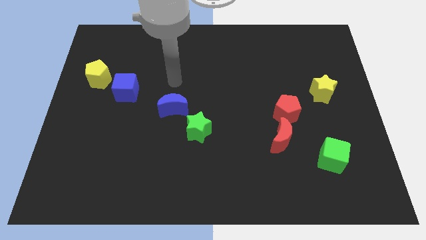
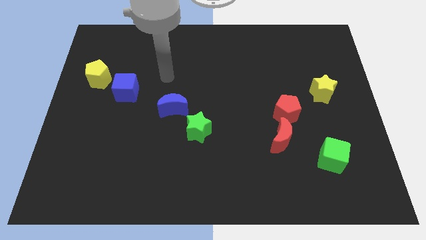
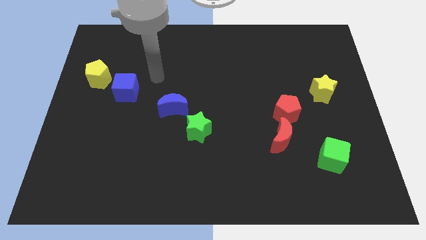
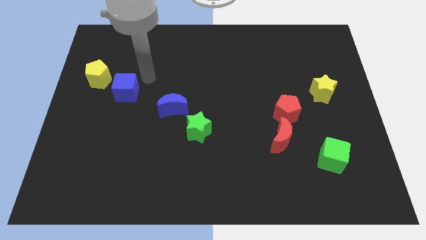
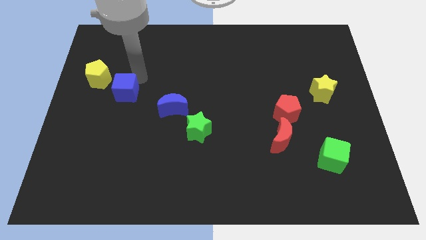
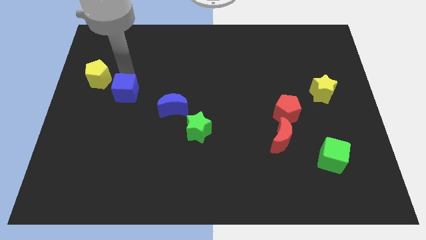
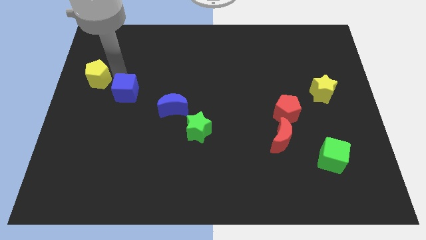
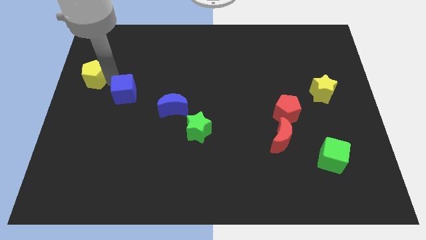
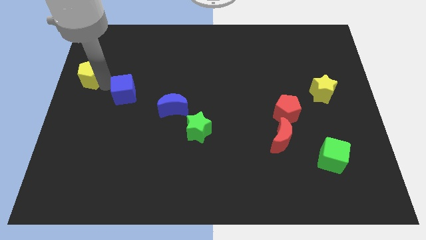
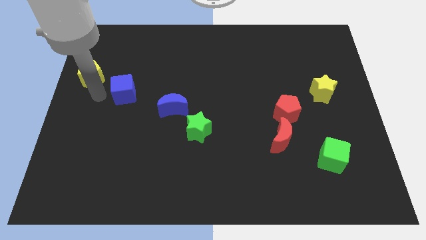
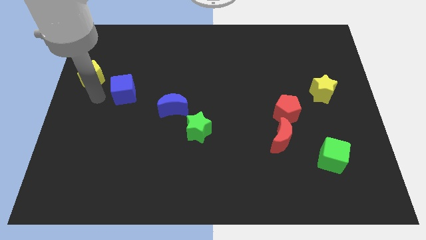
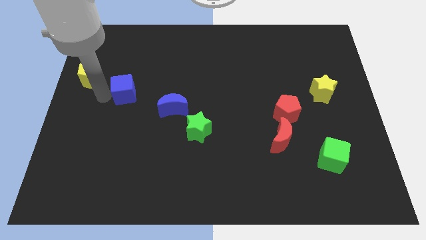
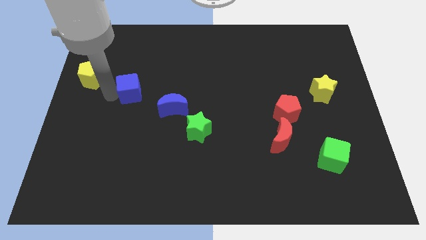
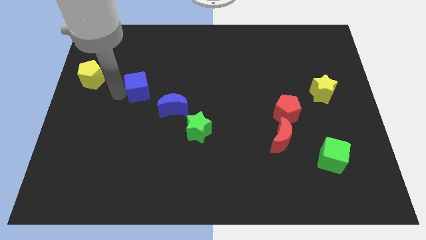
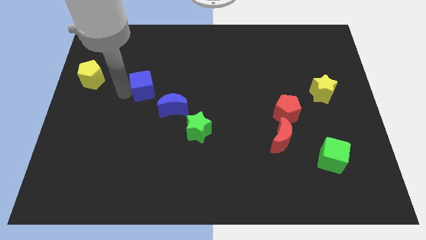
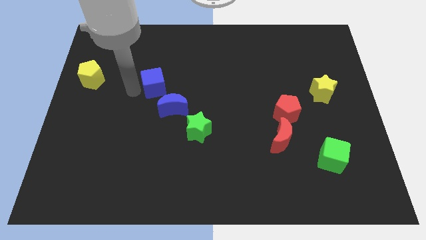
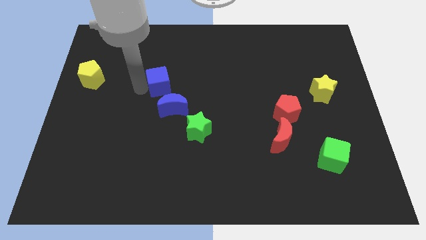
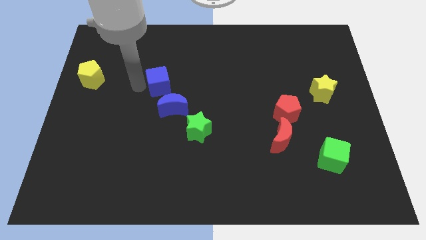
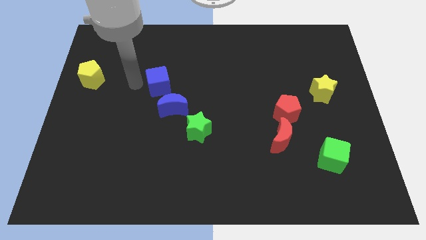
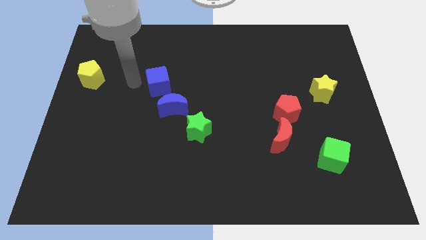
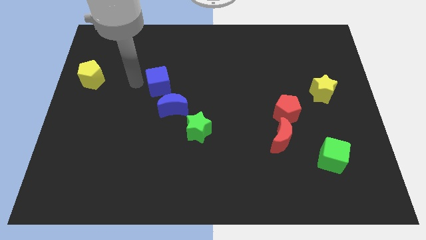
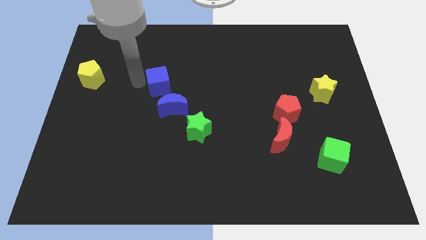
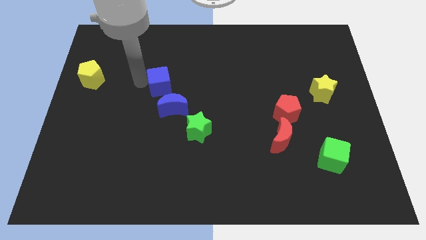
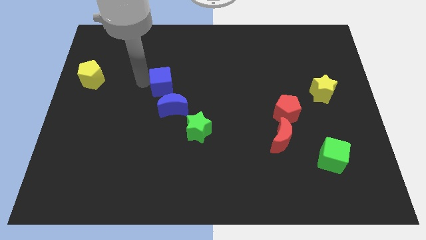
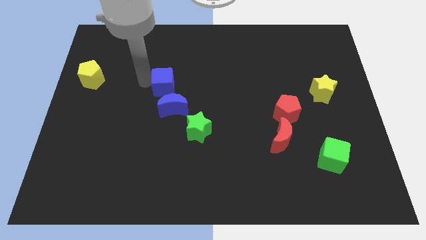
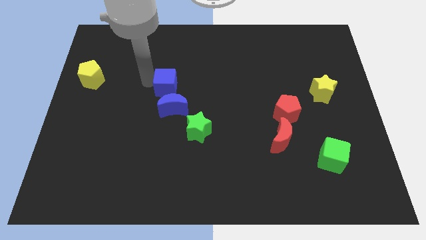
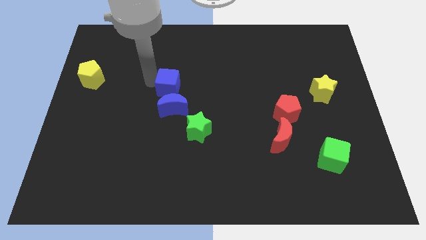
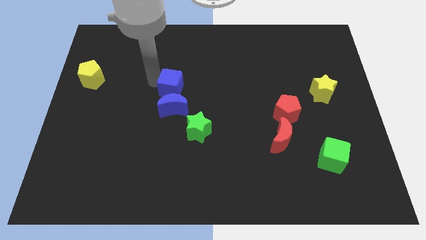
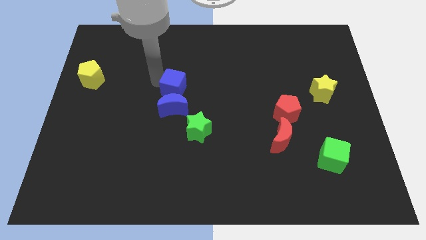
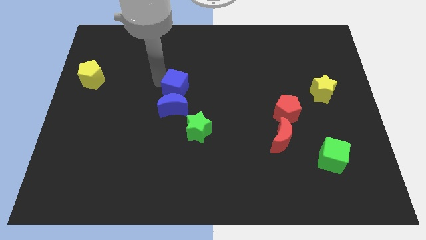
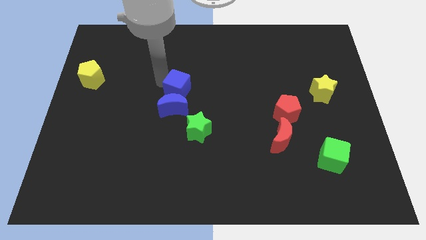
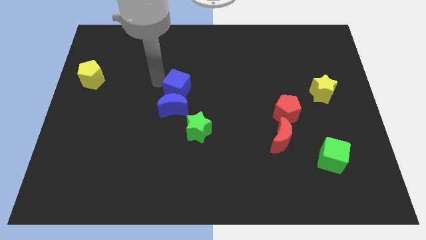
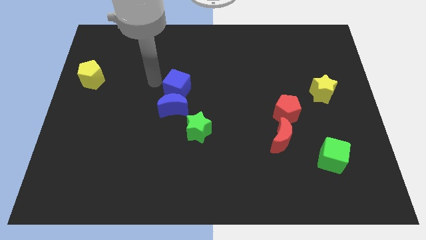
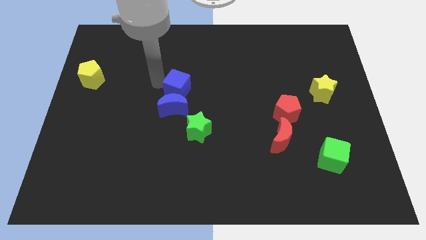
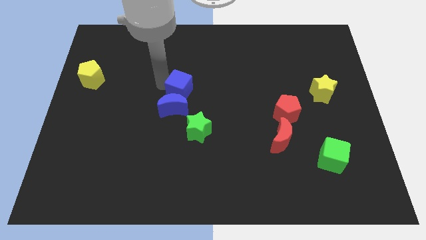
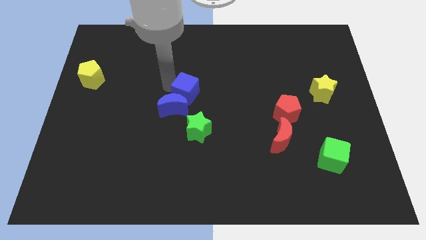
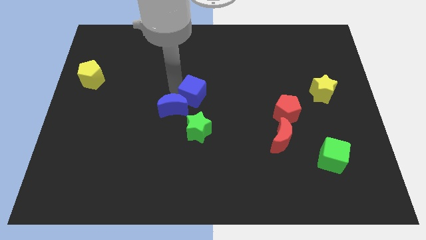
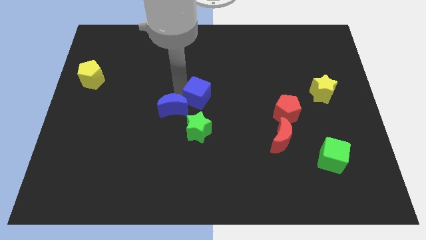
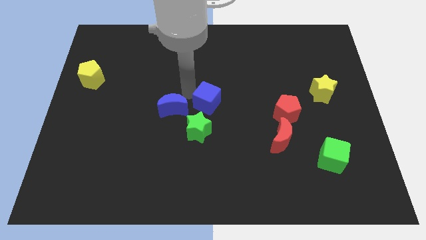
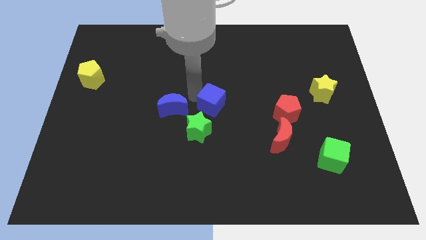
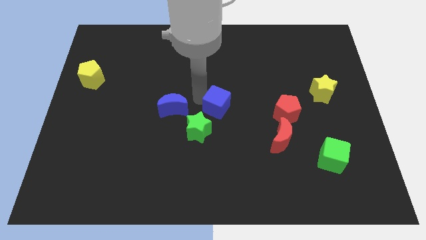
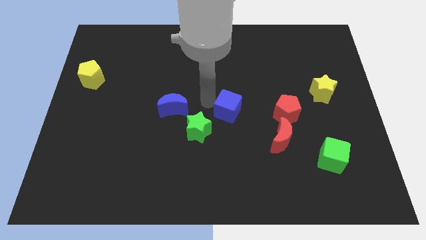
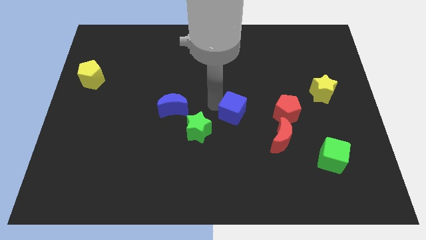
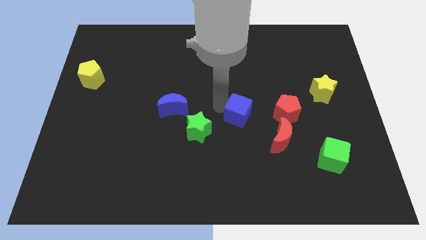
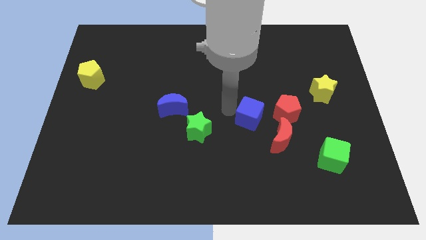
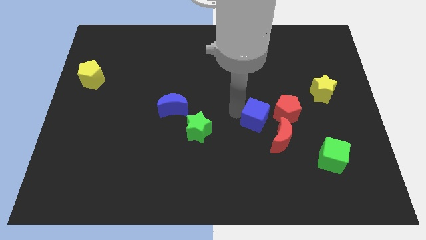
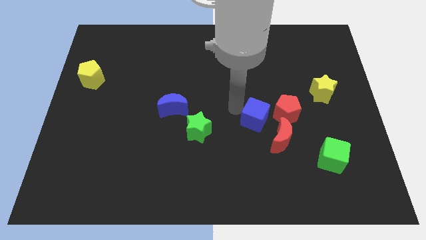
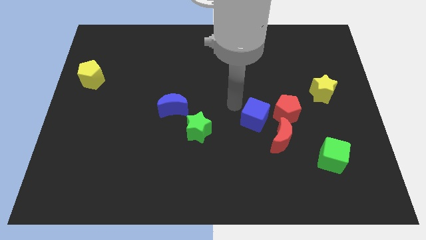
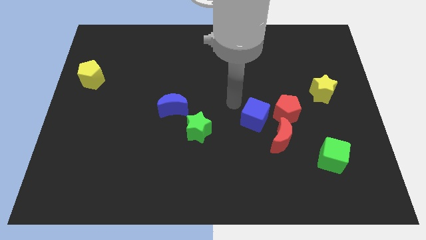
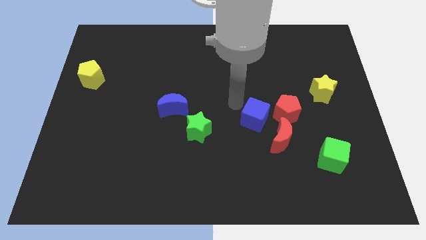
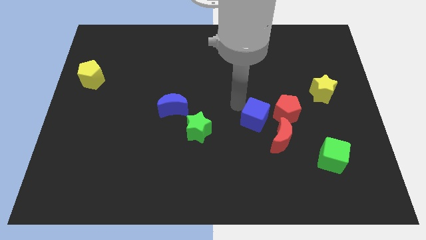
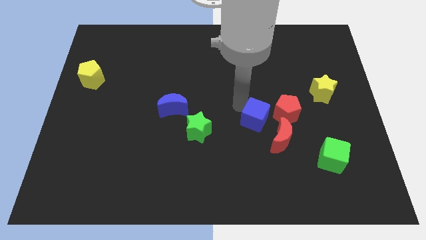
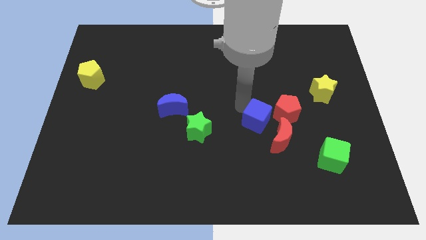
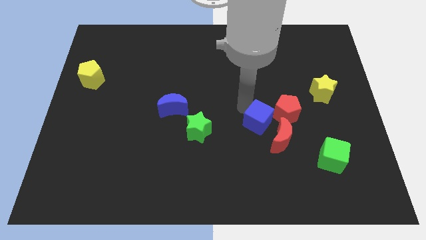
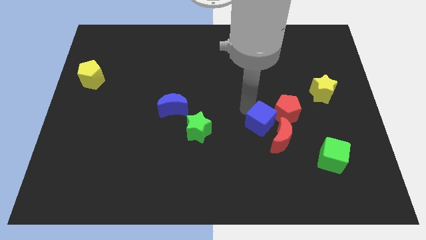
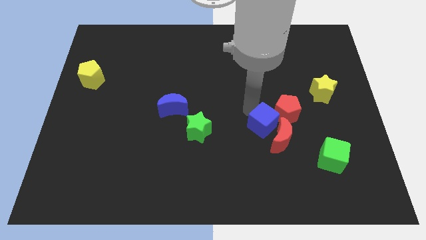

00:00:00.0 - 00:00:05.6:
move the blue cube next to the red moon

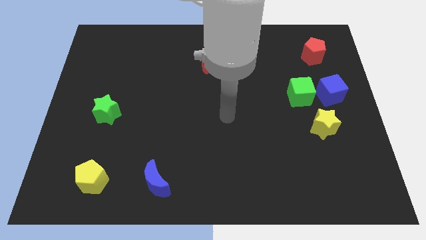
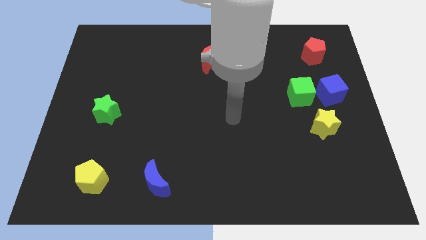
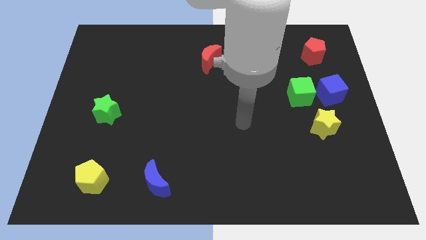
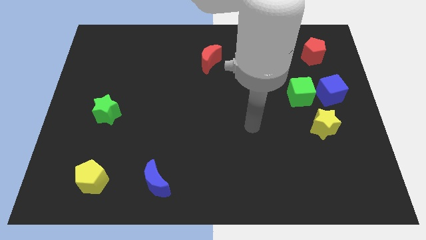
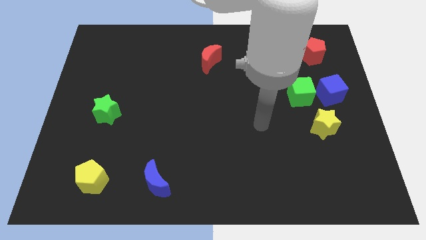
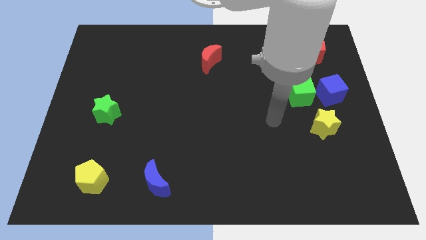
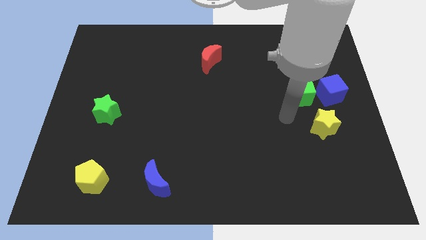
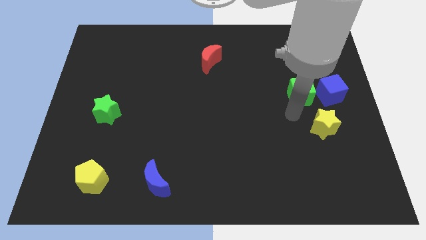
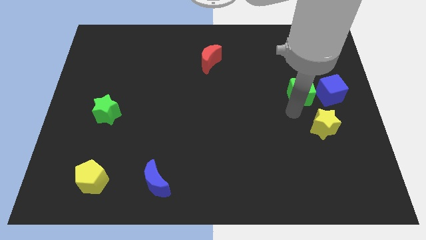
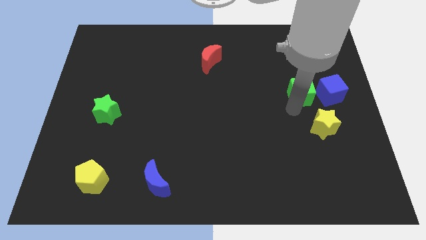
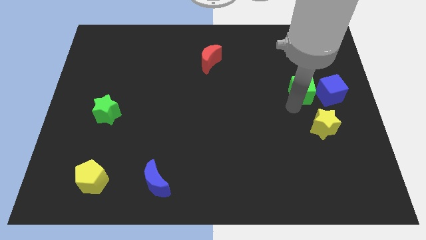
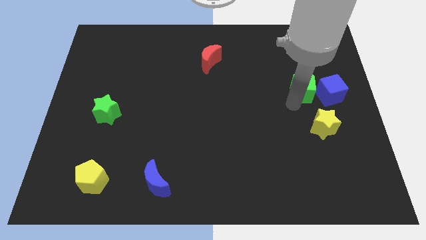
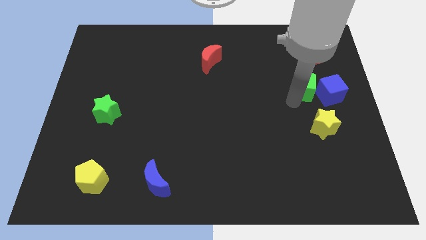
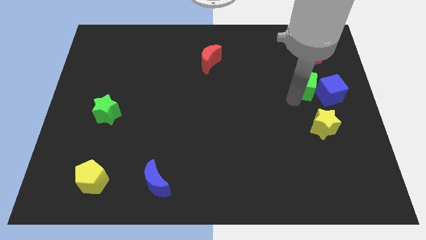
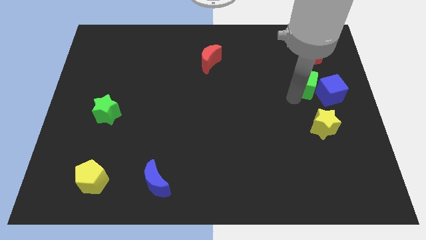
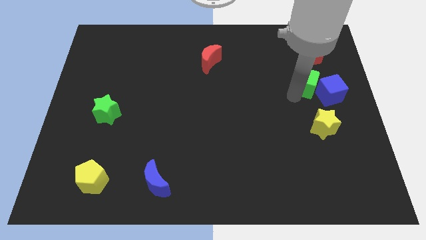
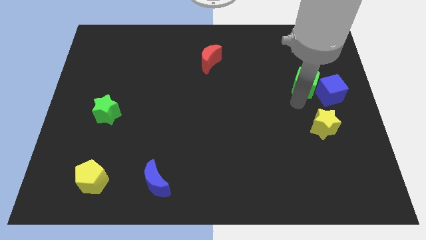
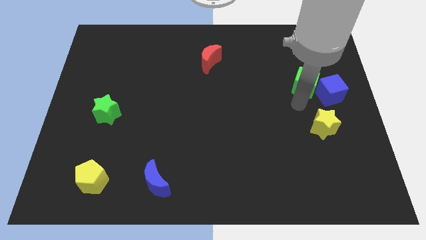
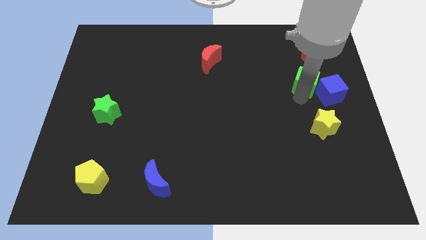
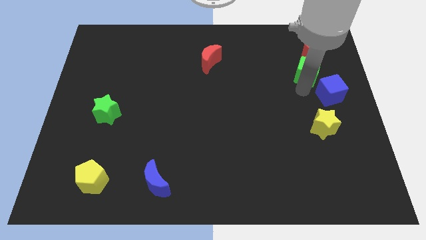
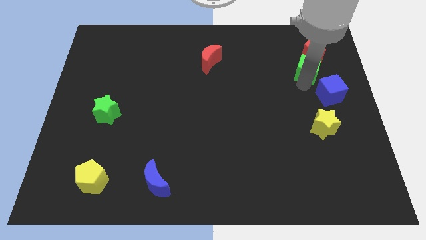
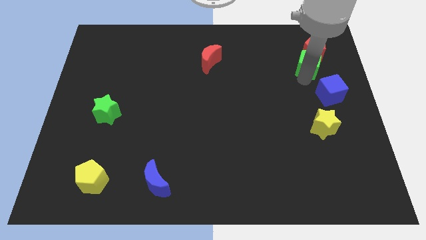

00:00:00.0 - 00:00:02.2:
put the green cube close to the red pentagon
